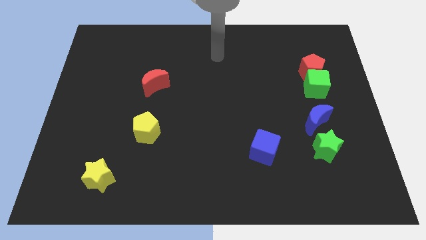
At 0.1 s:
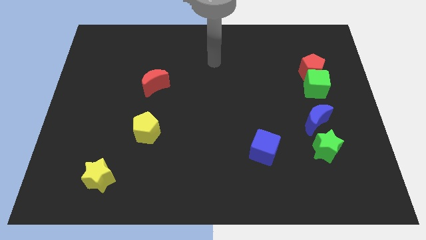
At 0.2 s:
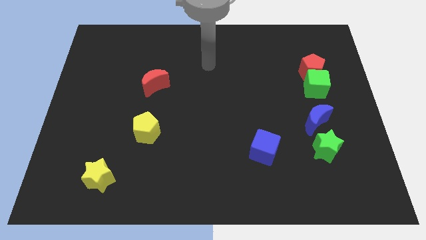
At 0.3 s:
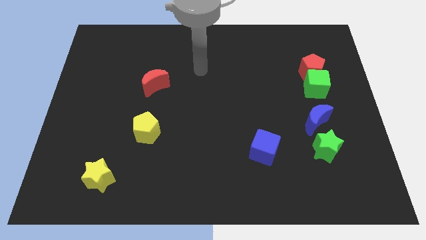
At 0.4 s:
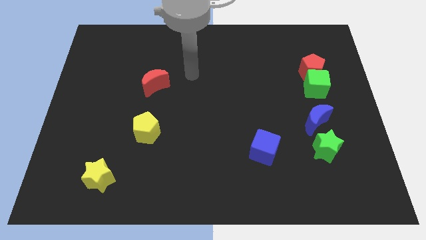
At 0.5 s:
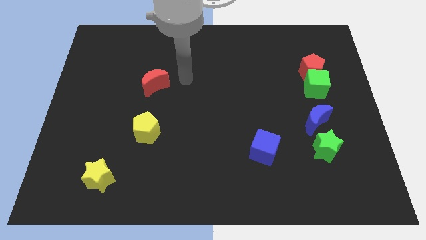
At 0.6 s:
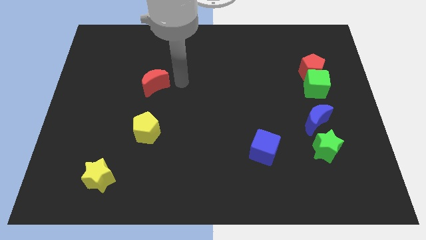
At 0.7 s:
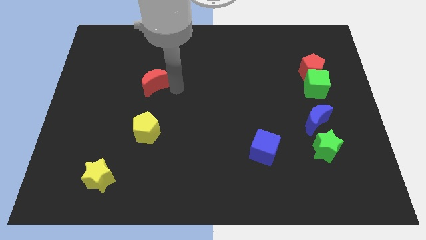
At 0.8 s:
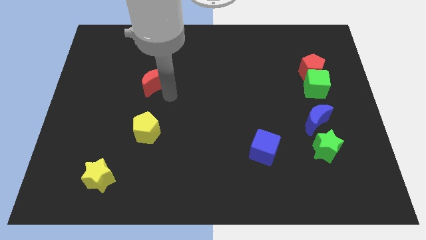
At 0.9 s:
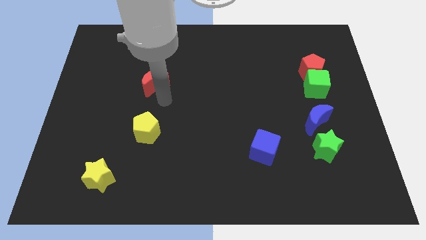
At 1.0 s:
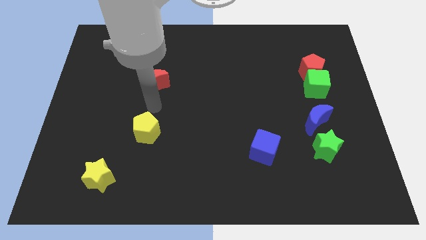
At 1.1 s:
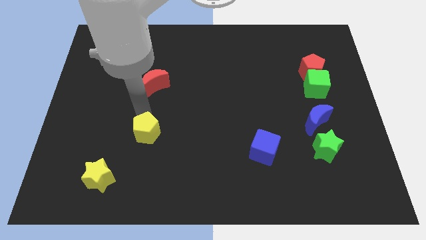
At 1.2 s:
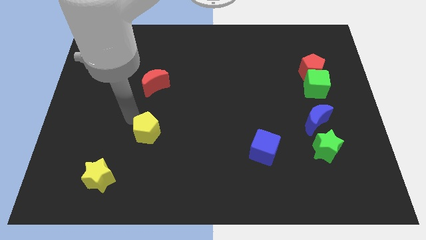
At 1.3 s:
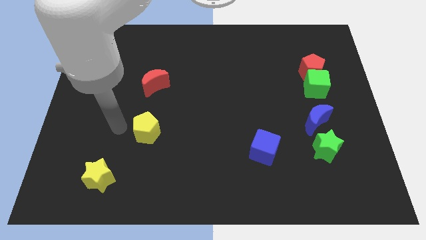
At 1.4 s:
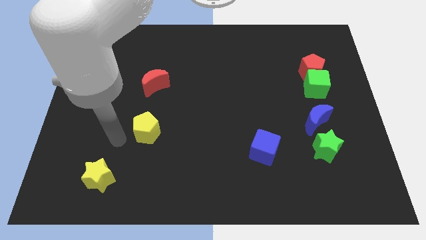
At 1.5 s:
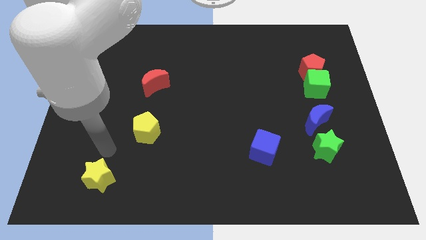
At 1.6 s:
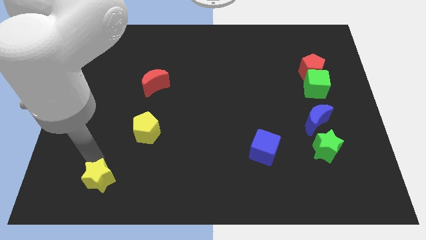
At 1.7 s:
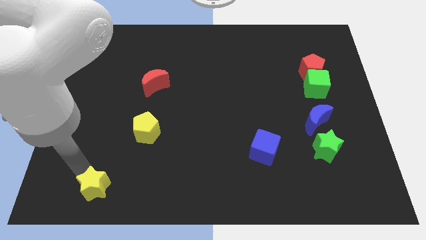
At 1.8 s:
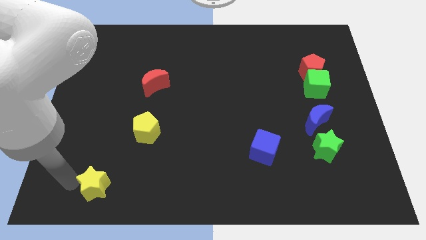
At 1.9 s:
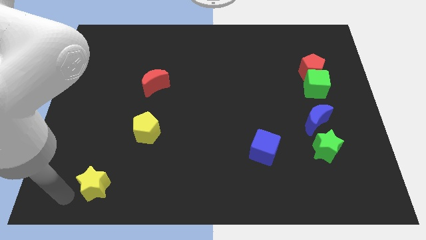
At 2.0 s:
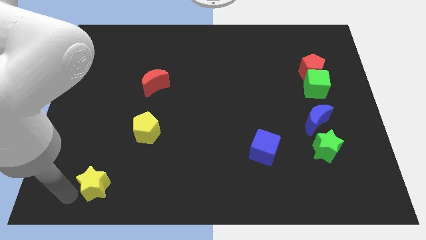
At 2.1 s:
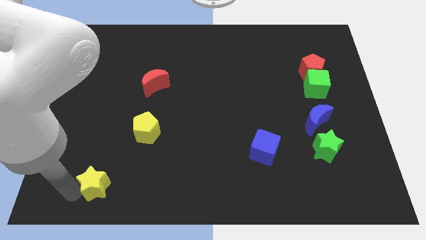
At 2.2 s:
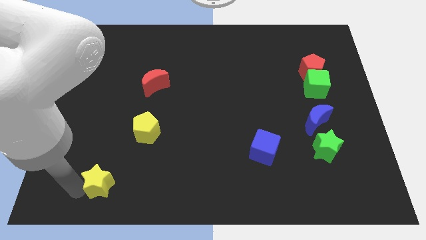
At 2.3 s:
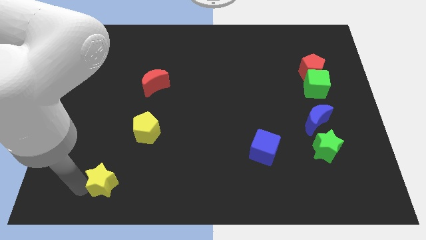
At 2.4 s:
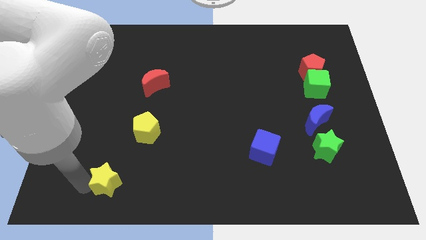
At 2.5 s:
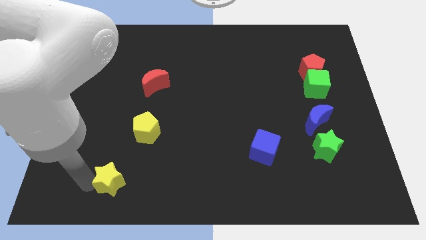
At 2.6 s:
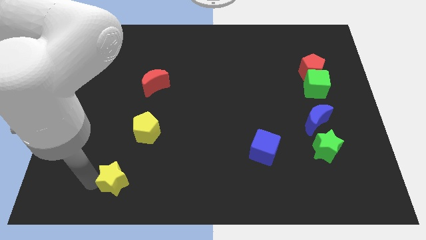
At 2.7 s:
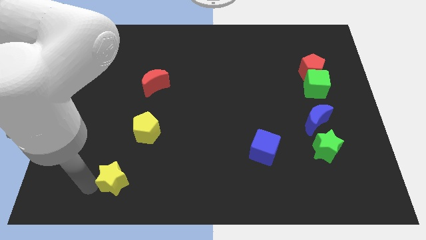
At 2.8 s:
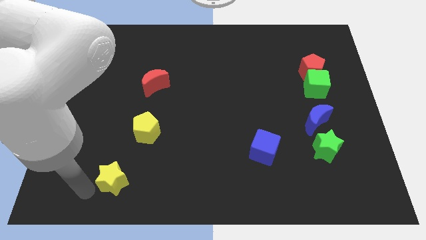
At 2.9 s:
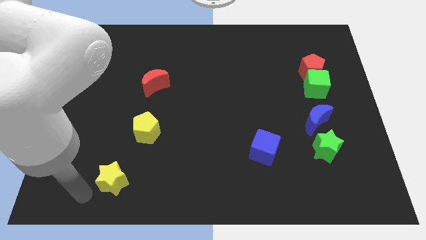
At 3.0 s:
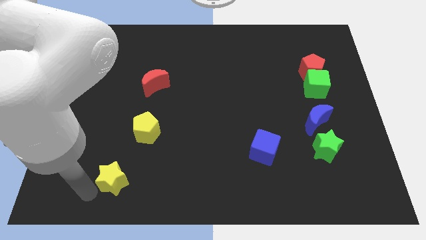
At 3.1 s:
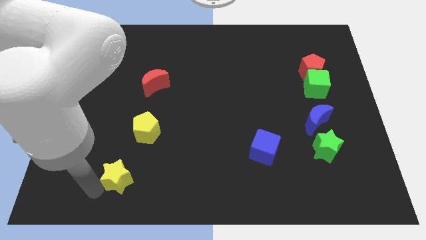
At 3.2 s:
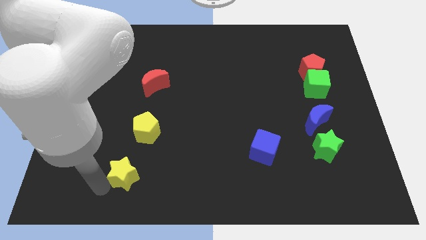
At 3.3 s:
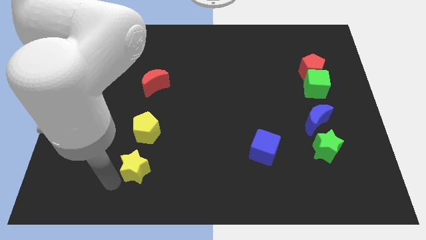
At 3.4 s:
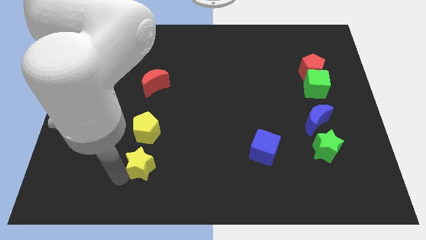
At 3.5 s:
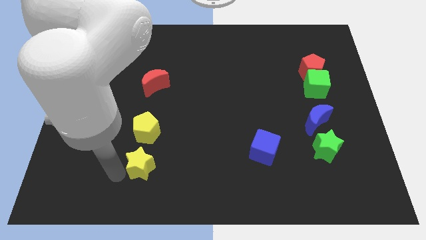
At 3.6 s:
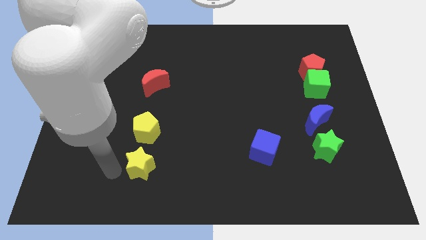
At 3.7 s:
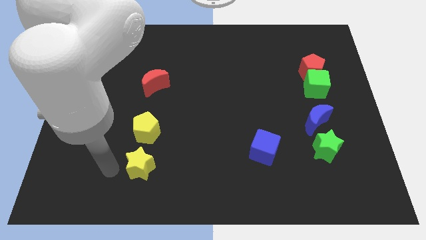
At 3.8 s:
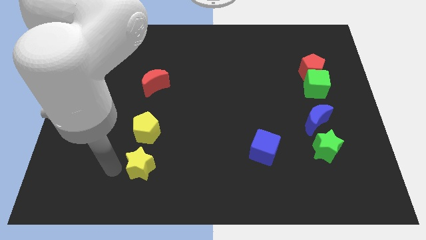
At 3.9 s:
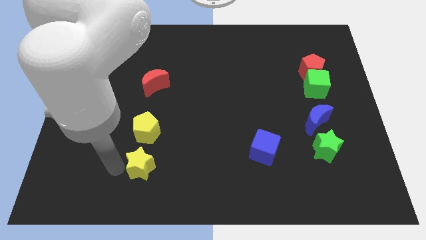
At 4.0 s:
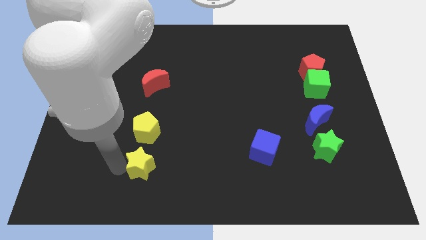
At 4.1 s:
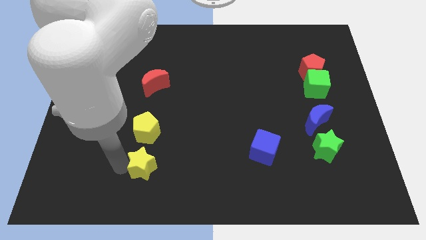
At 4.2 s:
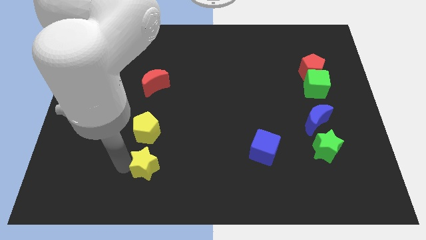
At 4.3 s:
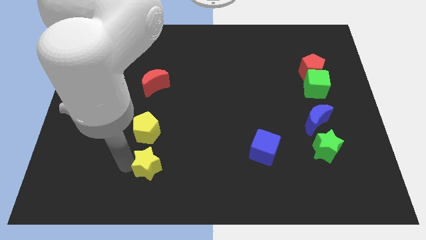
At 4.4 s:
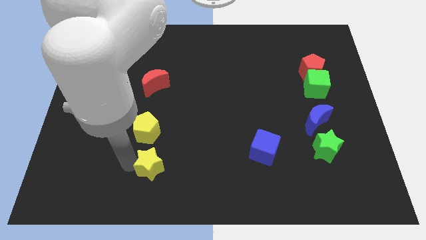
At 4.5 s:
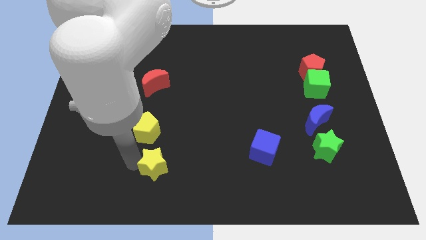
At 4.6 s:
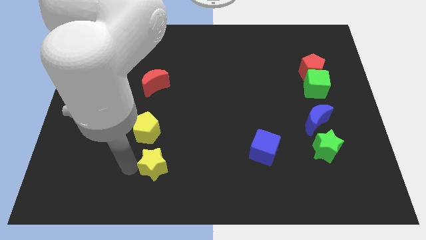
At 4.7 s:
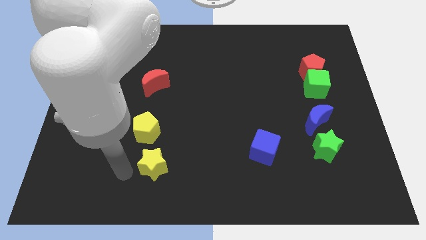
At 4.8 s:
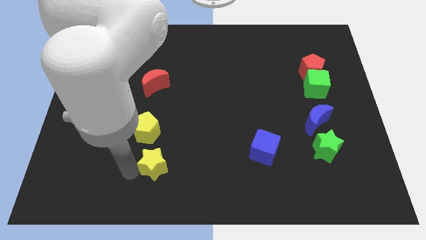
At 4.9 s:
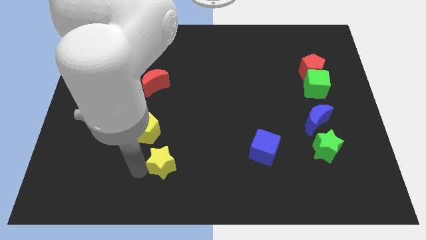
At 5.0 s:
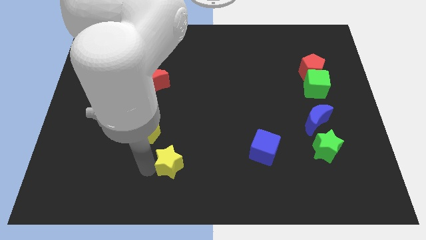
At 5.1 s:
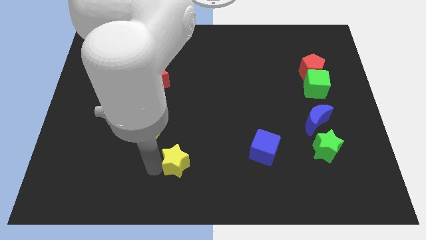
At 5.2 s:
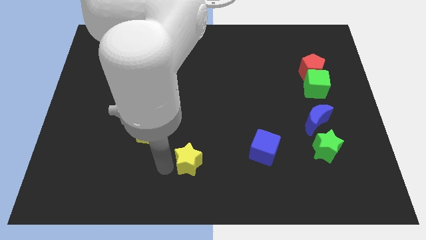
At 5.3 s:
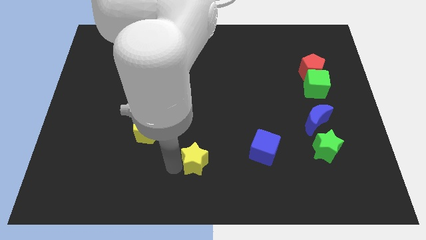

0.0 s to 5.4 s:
move the yellow star just left of the blue cube
